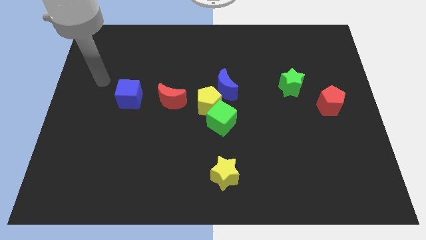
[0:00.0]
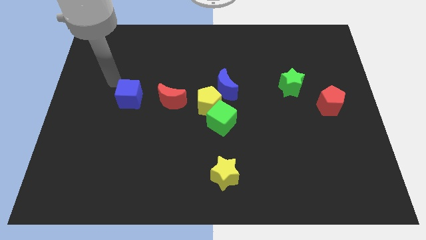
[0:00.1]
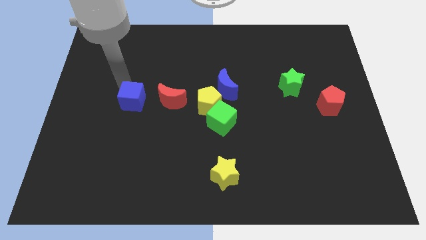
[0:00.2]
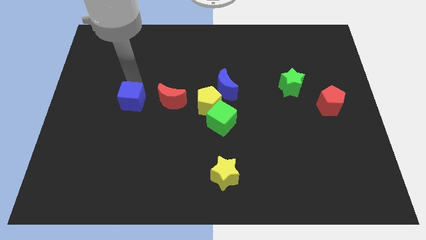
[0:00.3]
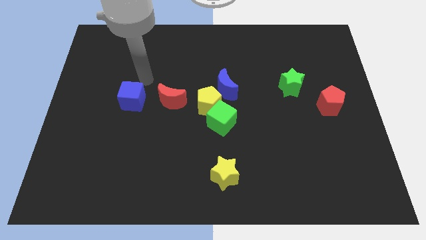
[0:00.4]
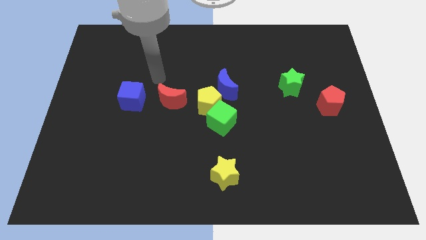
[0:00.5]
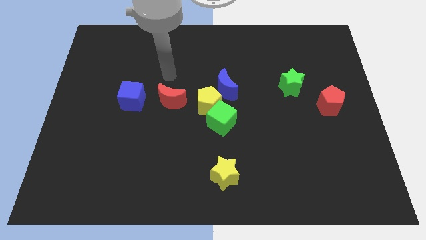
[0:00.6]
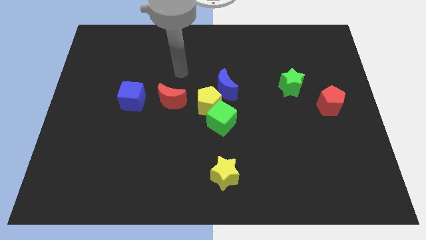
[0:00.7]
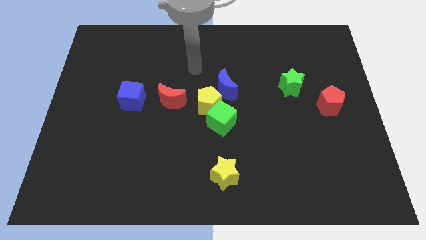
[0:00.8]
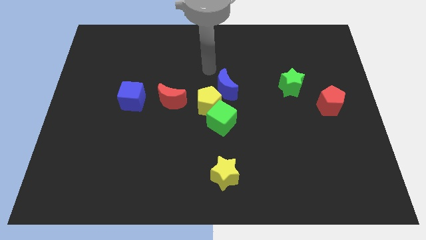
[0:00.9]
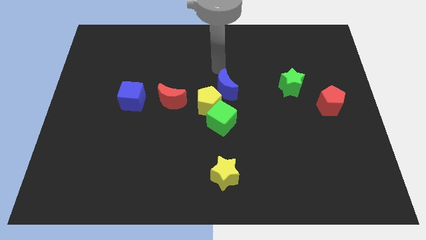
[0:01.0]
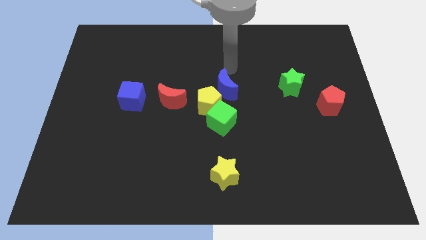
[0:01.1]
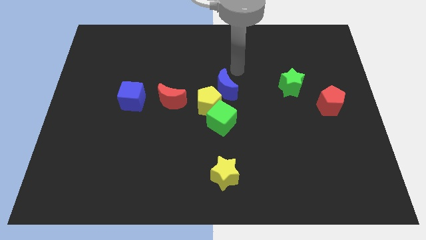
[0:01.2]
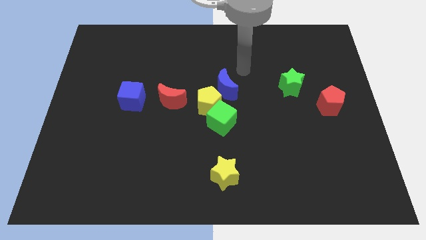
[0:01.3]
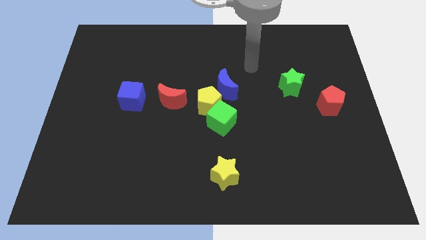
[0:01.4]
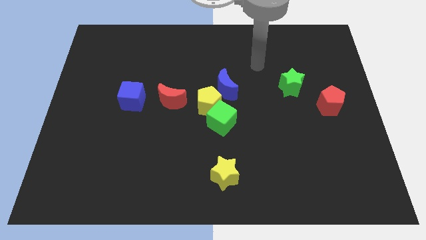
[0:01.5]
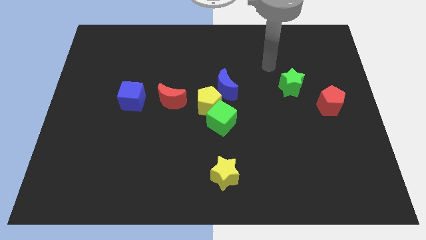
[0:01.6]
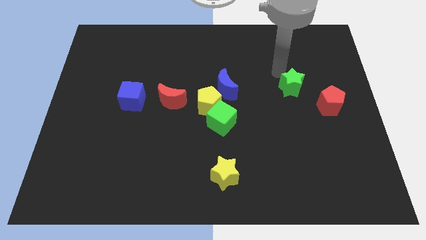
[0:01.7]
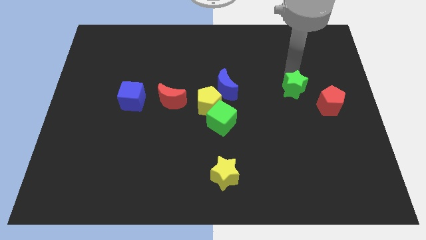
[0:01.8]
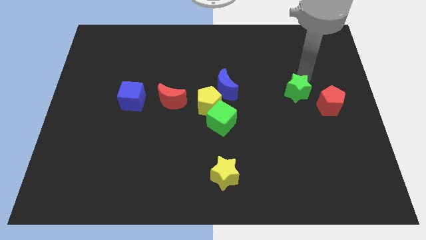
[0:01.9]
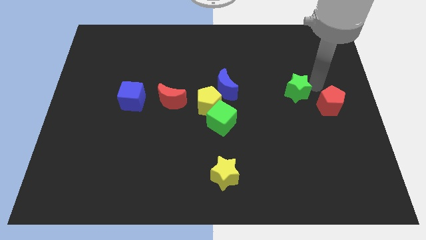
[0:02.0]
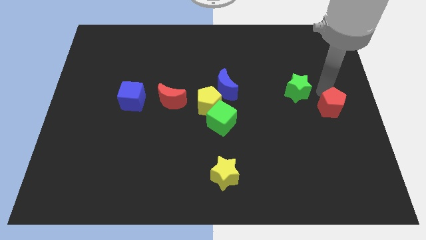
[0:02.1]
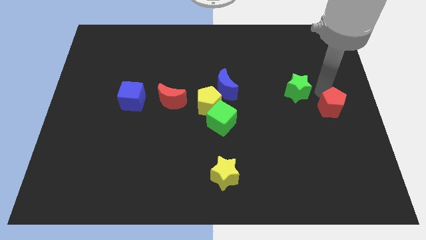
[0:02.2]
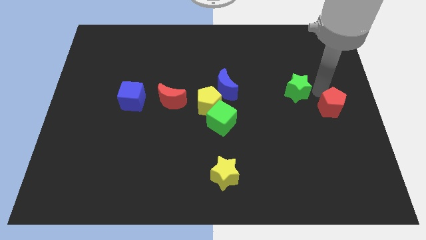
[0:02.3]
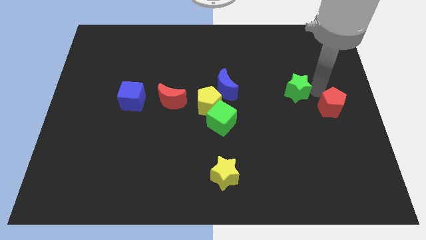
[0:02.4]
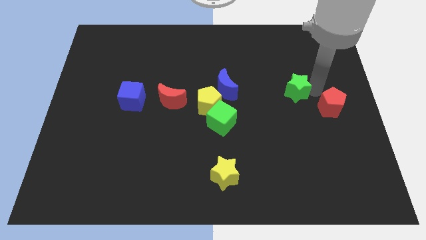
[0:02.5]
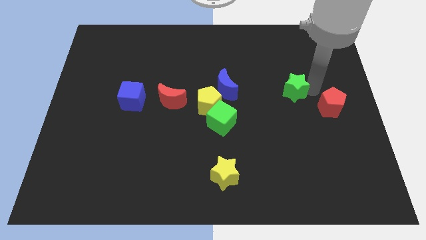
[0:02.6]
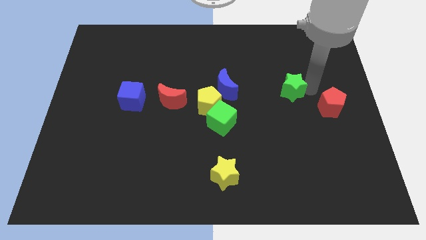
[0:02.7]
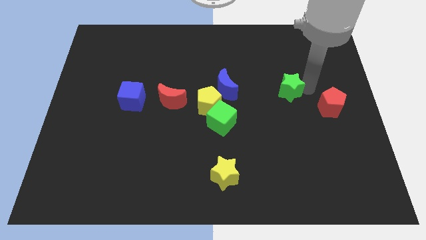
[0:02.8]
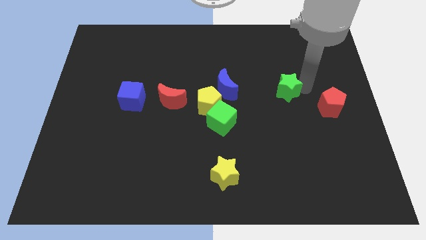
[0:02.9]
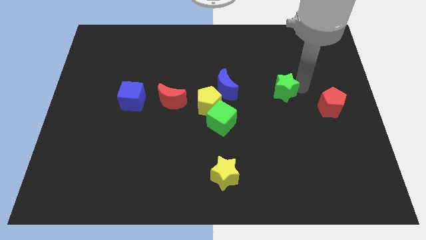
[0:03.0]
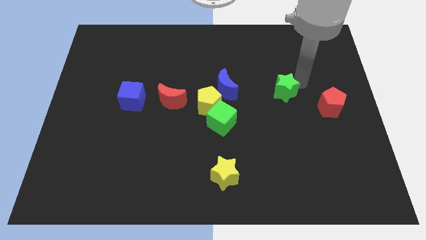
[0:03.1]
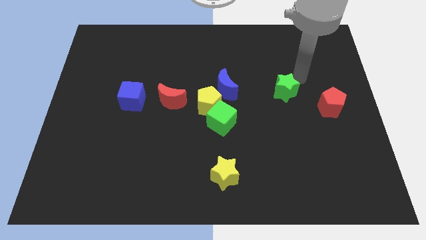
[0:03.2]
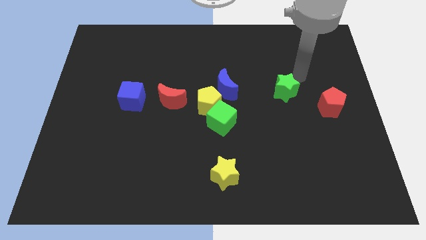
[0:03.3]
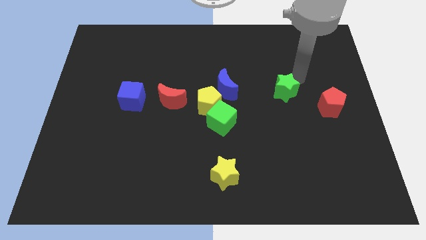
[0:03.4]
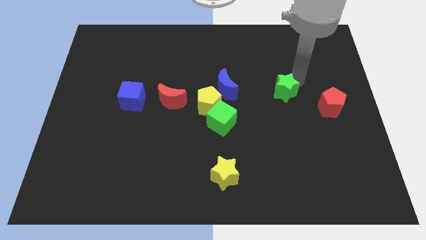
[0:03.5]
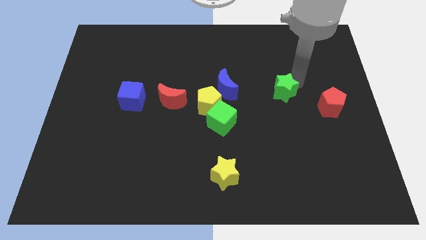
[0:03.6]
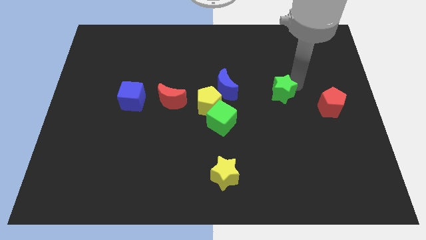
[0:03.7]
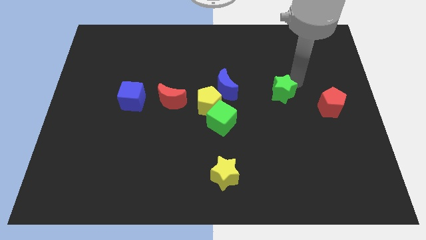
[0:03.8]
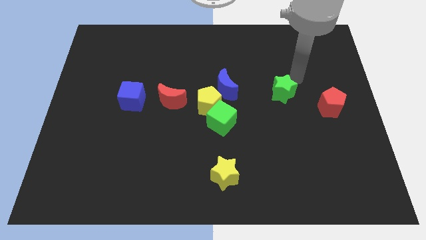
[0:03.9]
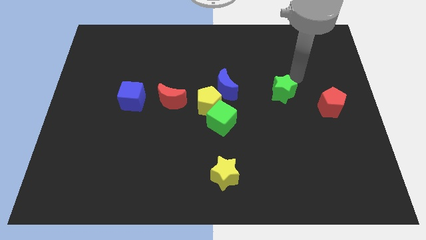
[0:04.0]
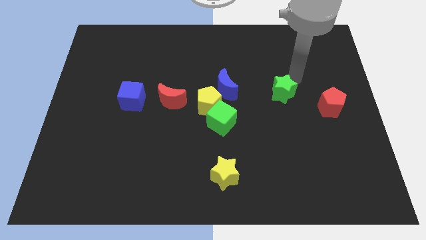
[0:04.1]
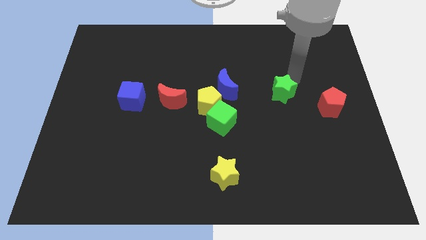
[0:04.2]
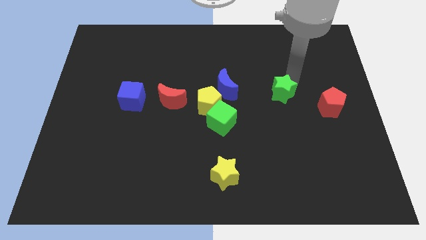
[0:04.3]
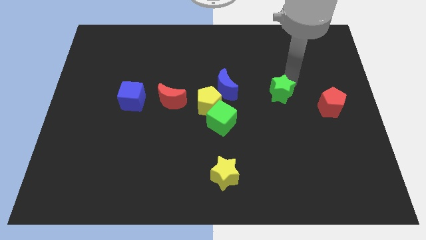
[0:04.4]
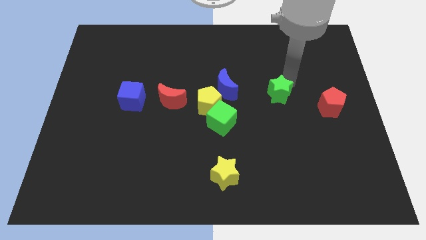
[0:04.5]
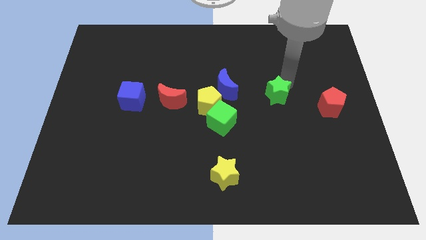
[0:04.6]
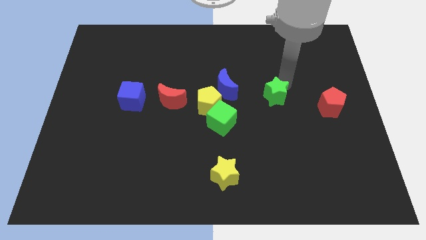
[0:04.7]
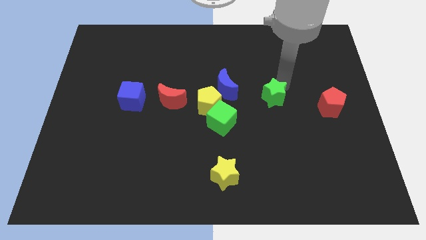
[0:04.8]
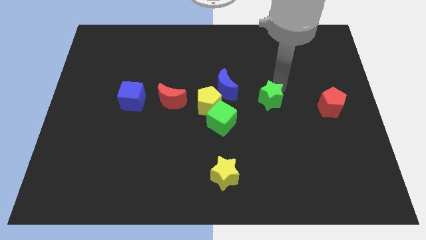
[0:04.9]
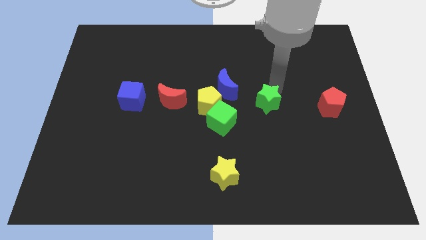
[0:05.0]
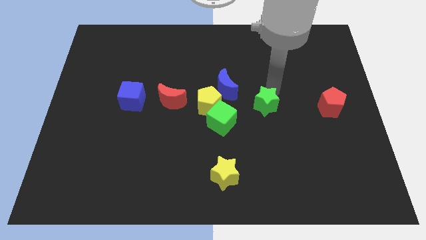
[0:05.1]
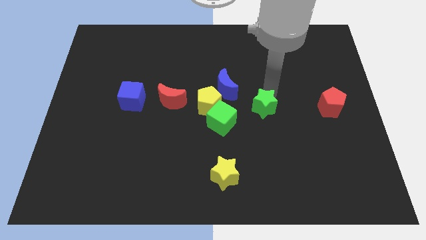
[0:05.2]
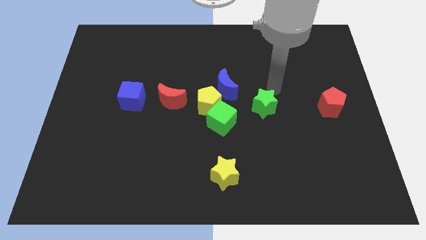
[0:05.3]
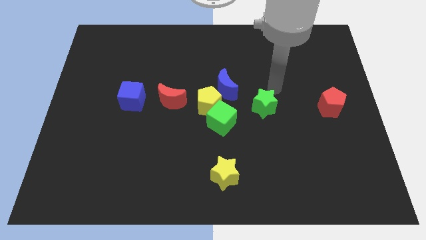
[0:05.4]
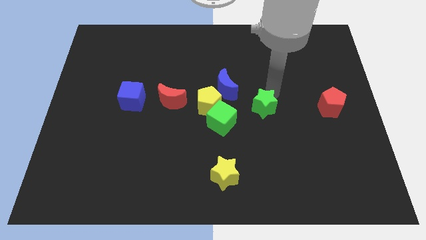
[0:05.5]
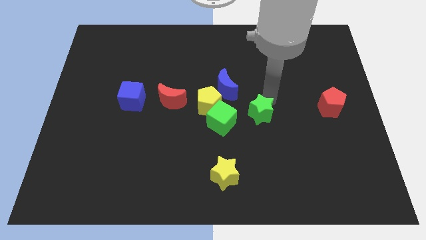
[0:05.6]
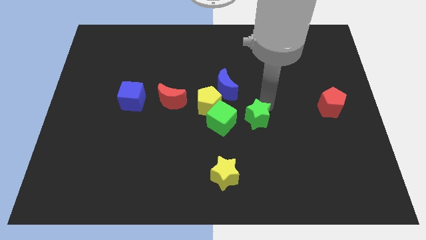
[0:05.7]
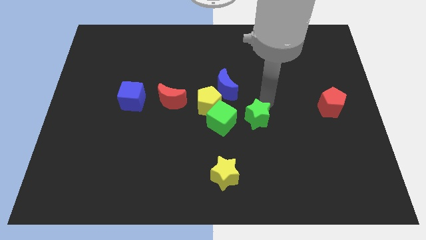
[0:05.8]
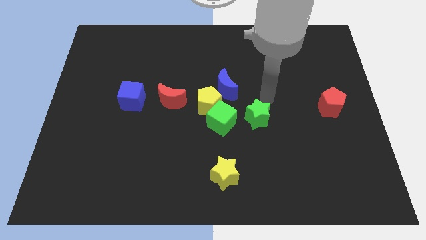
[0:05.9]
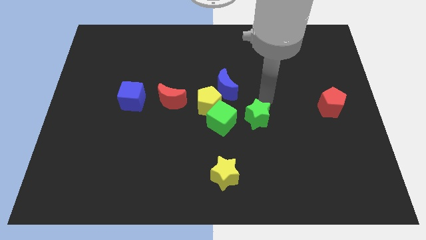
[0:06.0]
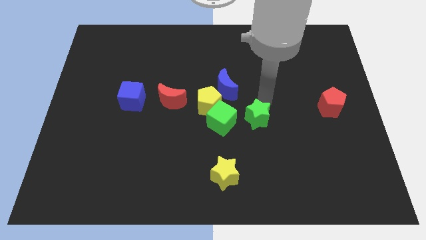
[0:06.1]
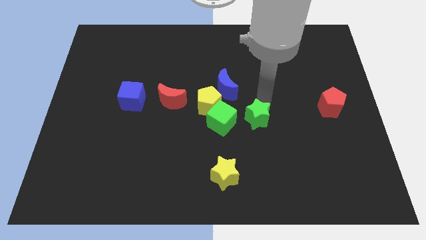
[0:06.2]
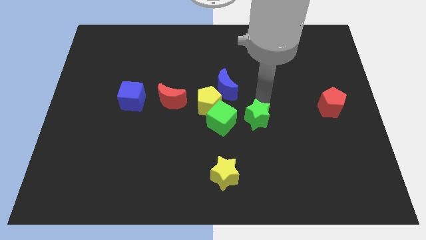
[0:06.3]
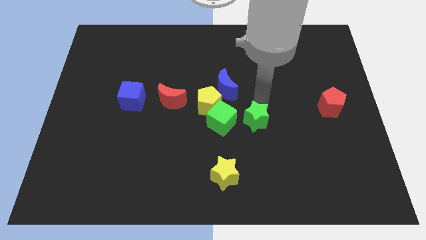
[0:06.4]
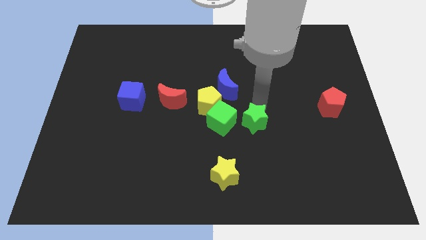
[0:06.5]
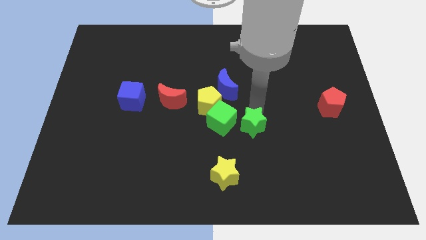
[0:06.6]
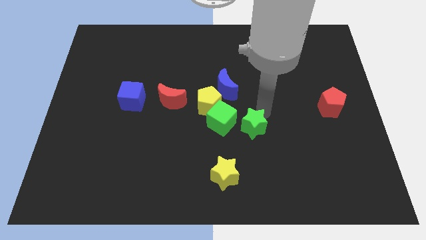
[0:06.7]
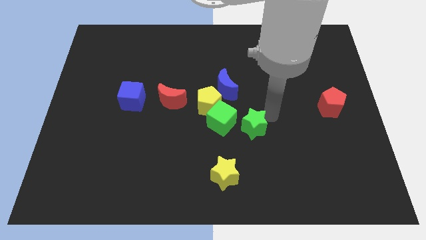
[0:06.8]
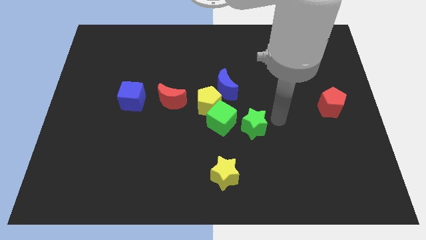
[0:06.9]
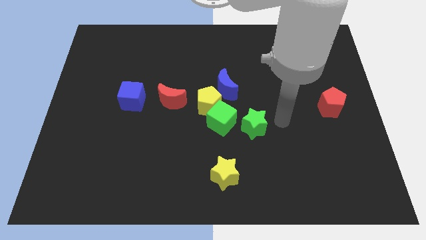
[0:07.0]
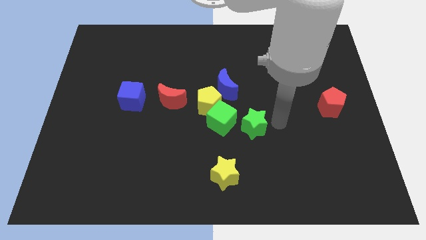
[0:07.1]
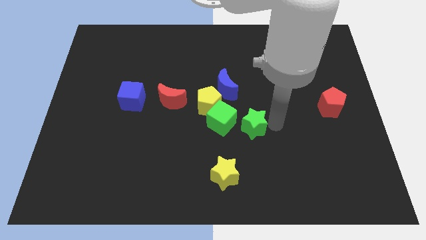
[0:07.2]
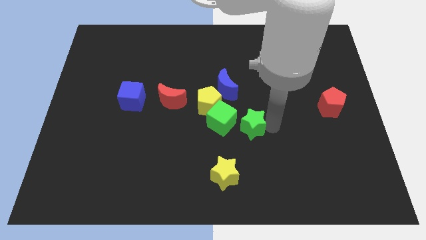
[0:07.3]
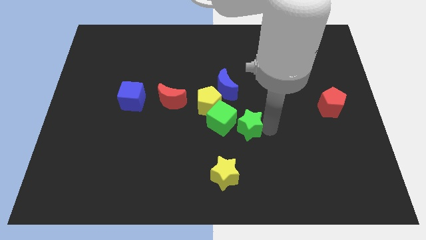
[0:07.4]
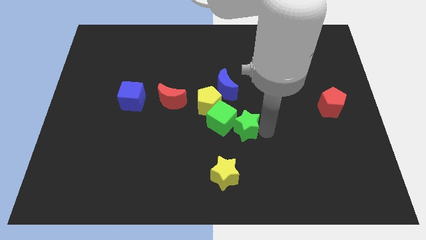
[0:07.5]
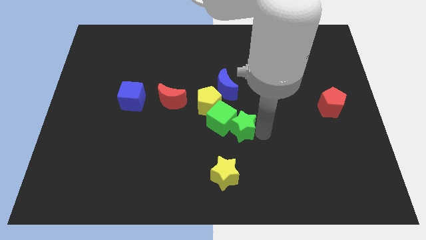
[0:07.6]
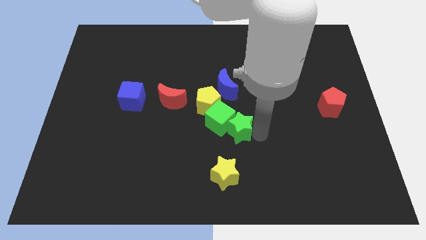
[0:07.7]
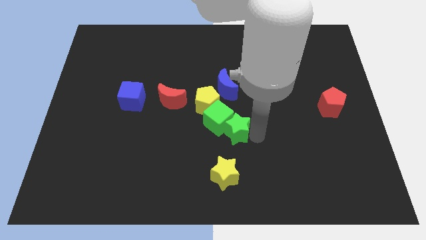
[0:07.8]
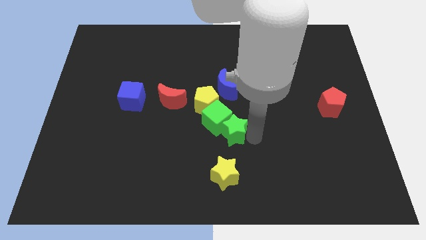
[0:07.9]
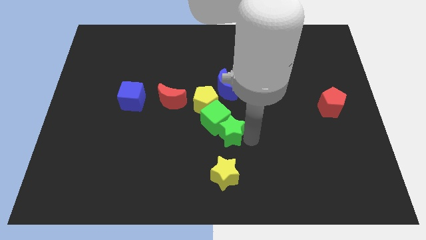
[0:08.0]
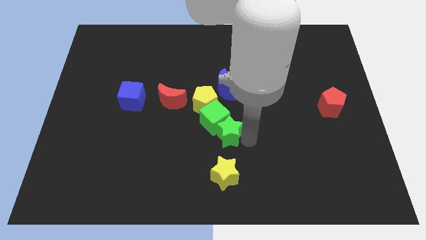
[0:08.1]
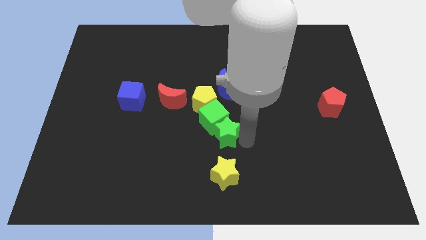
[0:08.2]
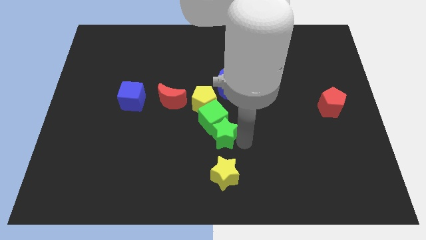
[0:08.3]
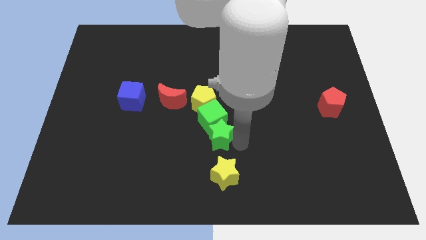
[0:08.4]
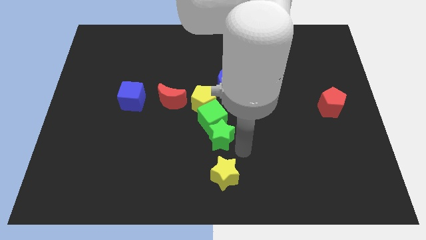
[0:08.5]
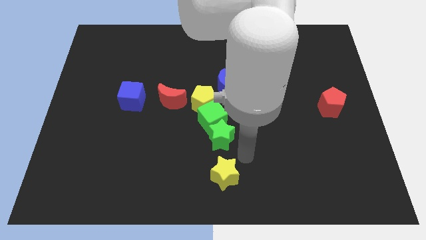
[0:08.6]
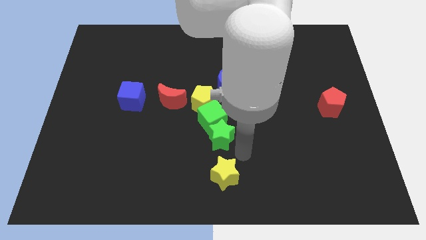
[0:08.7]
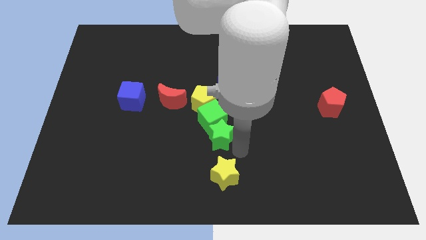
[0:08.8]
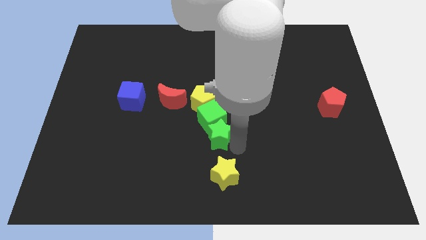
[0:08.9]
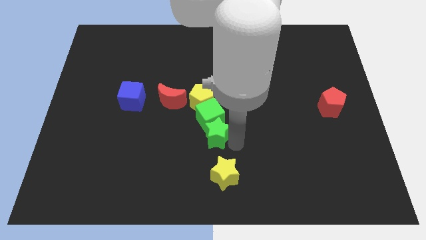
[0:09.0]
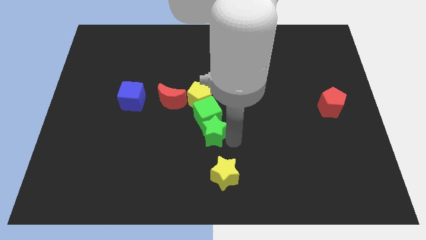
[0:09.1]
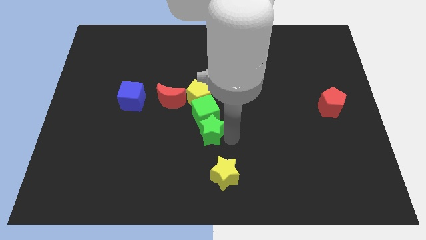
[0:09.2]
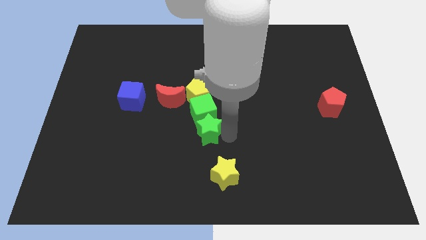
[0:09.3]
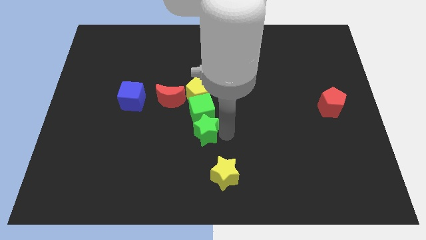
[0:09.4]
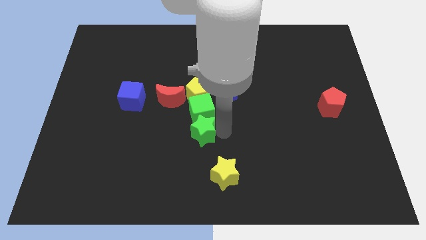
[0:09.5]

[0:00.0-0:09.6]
push the green star diagonally down and to the right of the red moon
